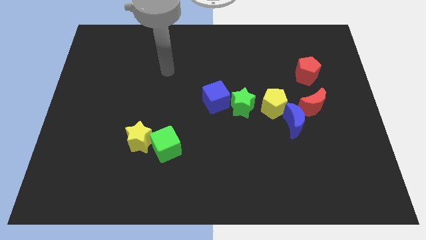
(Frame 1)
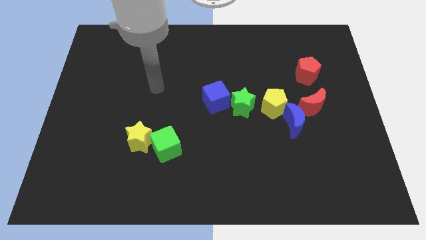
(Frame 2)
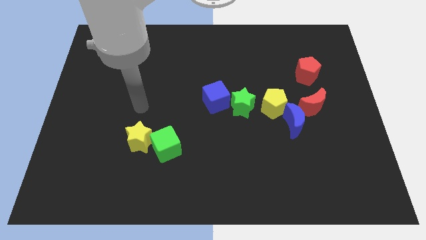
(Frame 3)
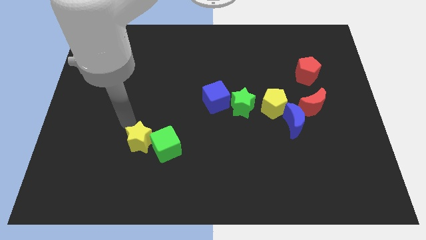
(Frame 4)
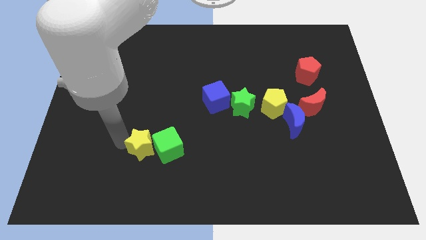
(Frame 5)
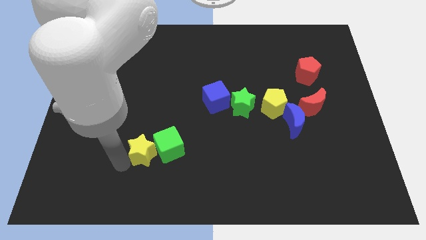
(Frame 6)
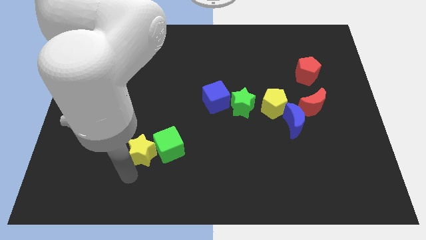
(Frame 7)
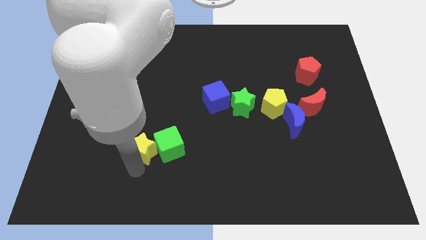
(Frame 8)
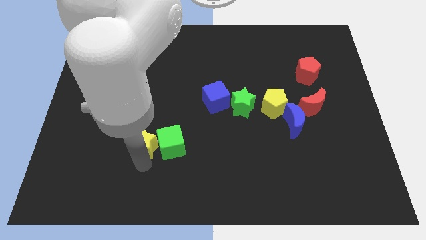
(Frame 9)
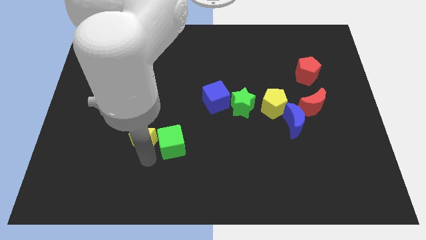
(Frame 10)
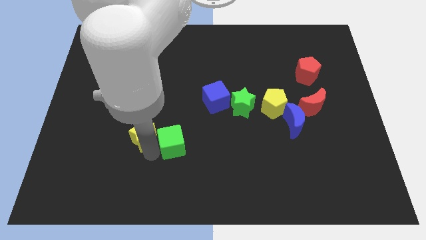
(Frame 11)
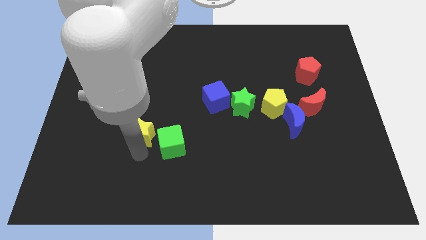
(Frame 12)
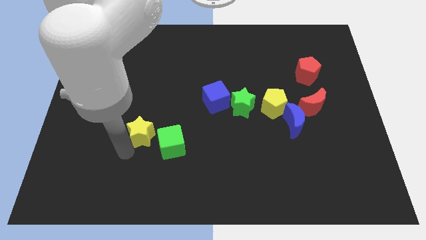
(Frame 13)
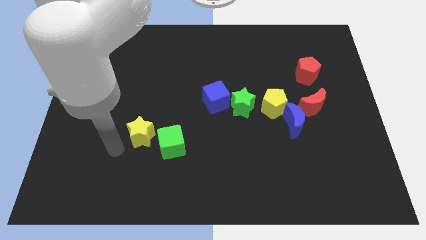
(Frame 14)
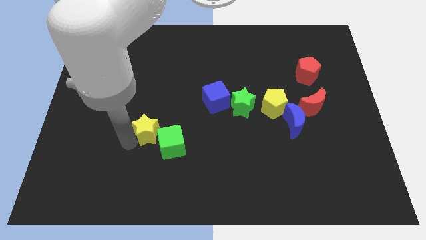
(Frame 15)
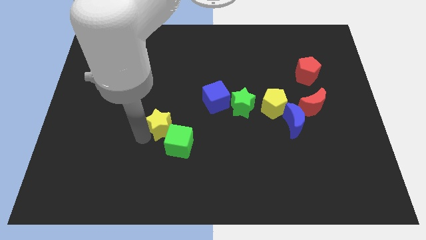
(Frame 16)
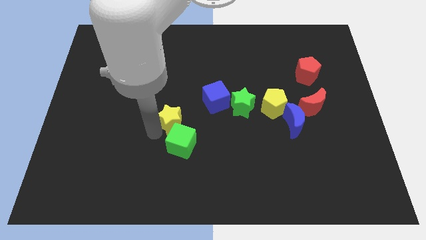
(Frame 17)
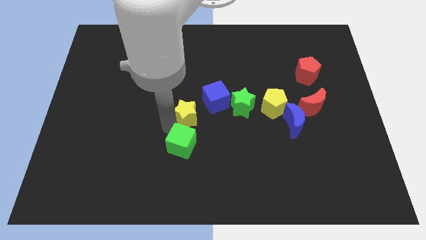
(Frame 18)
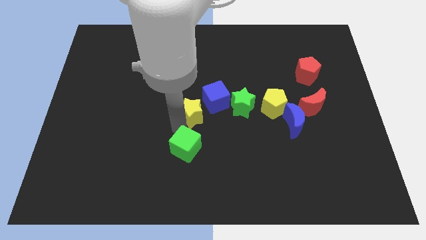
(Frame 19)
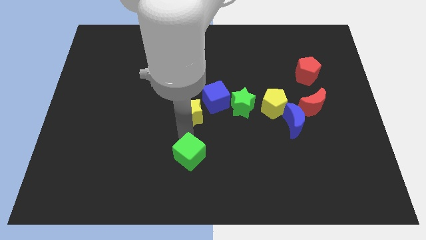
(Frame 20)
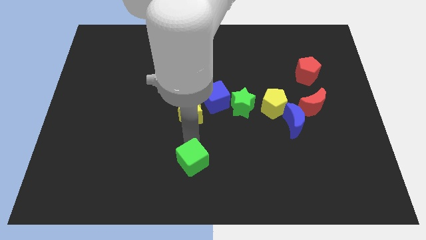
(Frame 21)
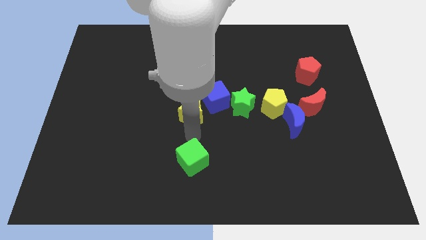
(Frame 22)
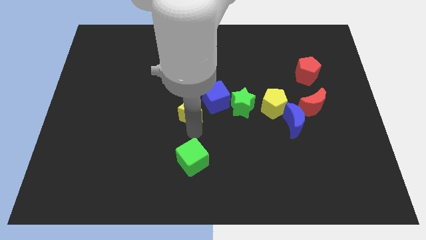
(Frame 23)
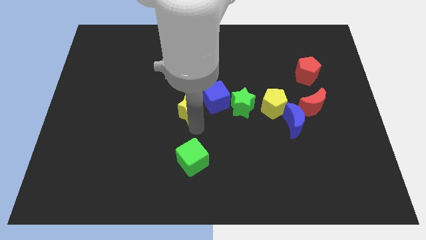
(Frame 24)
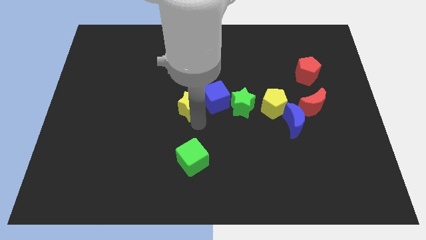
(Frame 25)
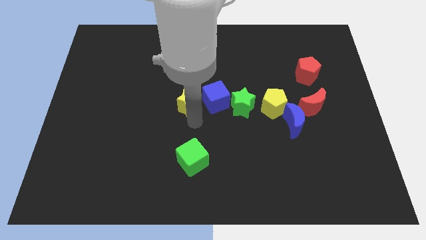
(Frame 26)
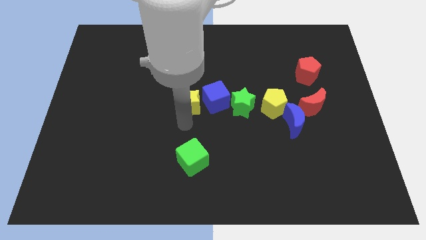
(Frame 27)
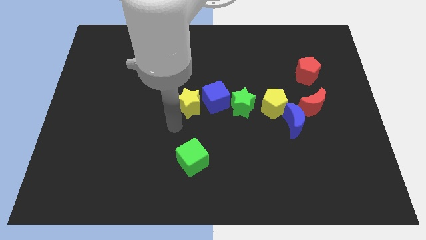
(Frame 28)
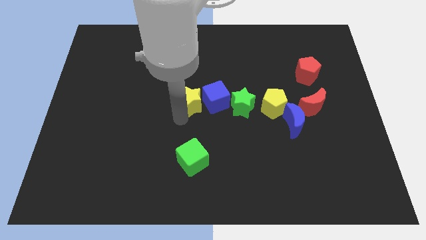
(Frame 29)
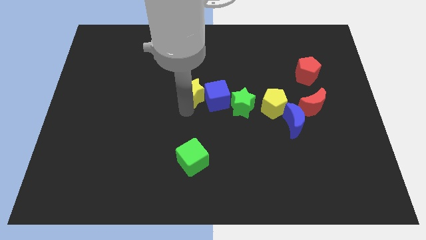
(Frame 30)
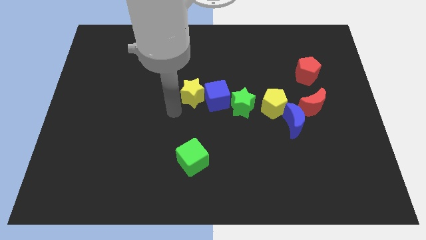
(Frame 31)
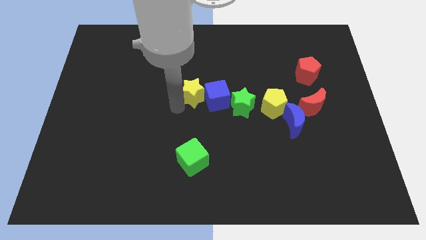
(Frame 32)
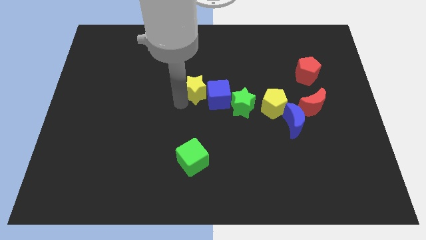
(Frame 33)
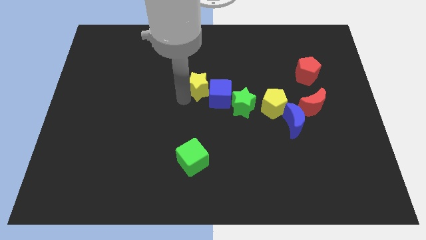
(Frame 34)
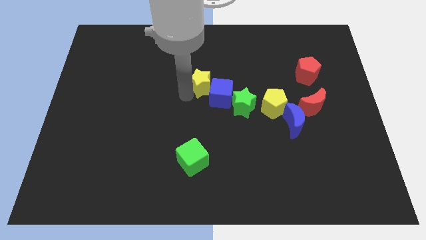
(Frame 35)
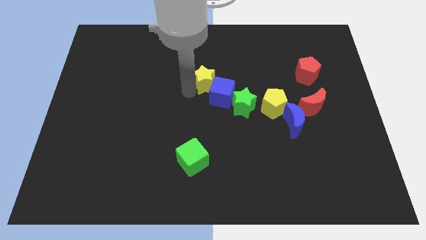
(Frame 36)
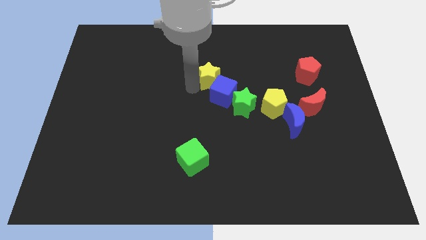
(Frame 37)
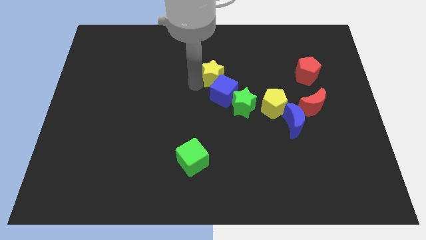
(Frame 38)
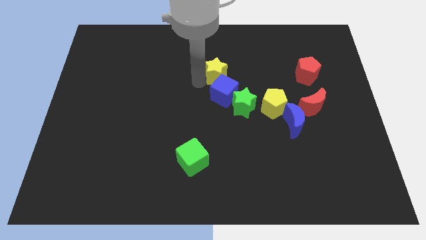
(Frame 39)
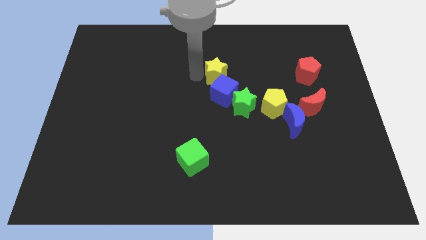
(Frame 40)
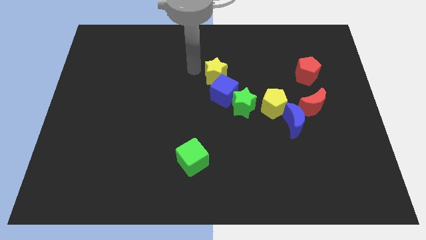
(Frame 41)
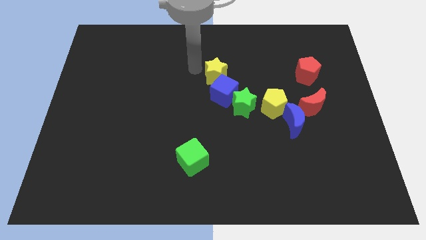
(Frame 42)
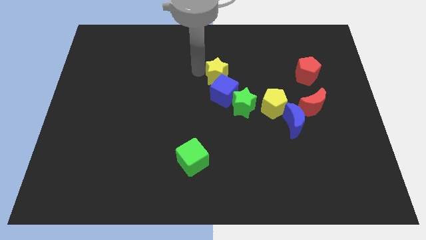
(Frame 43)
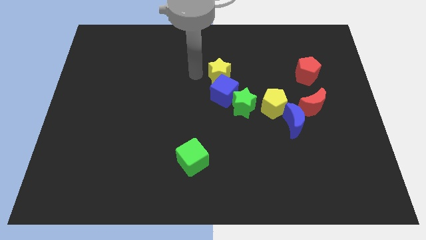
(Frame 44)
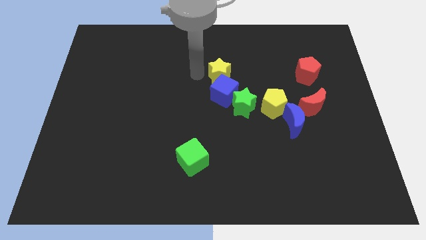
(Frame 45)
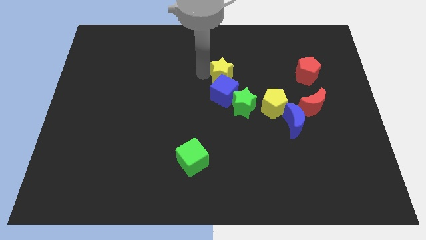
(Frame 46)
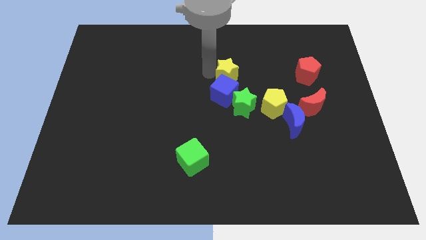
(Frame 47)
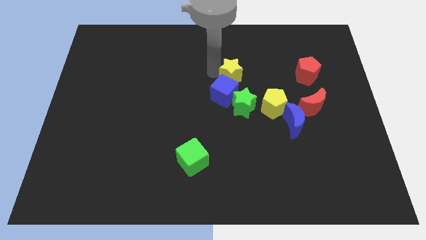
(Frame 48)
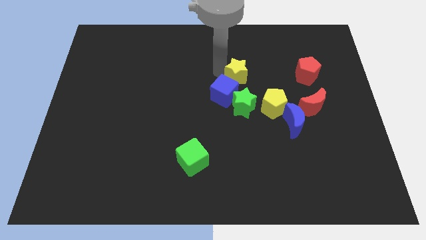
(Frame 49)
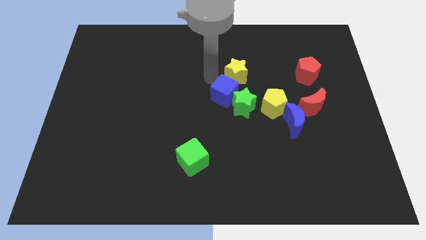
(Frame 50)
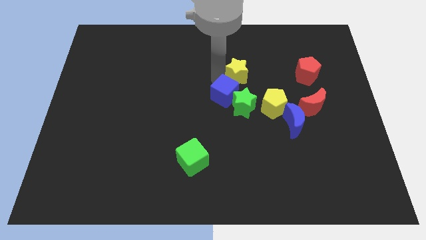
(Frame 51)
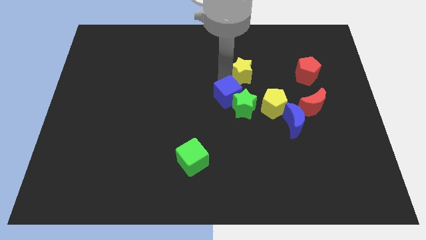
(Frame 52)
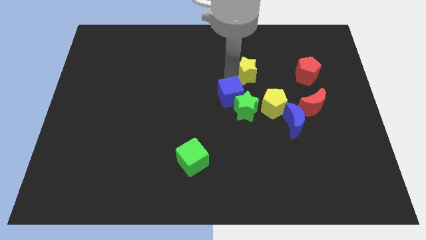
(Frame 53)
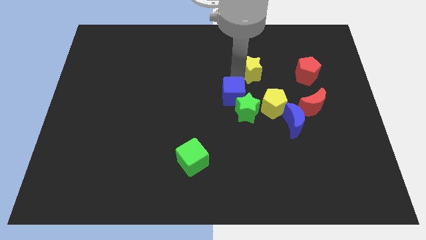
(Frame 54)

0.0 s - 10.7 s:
slide the yellow star to the top side of the yellow pentagon

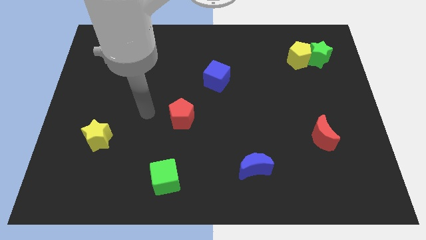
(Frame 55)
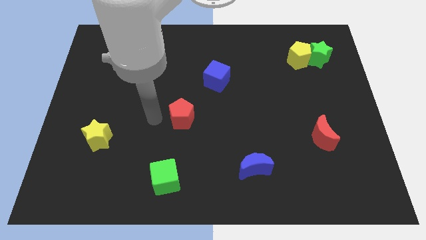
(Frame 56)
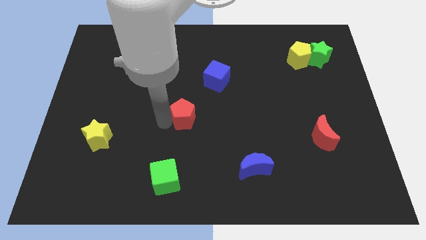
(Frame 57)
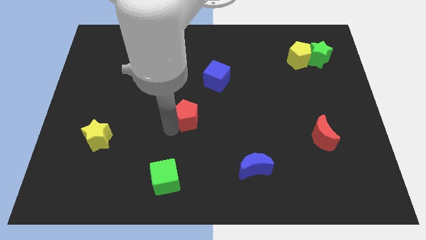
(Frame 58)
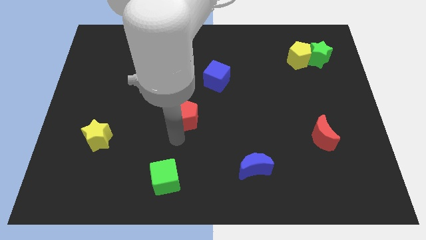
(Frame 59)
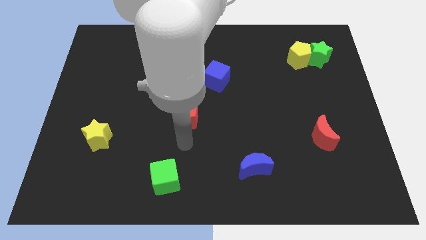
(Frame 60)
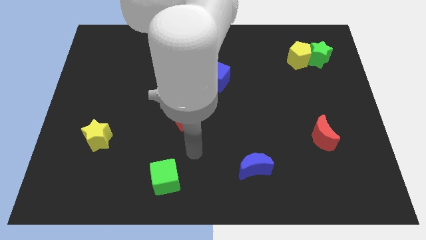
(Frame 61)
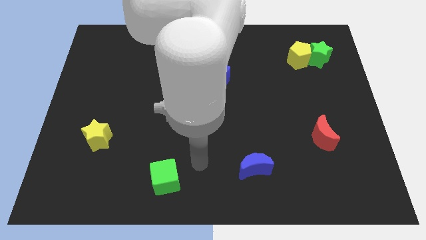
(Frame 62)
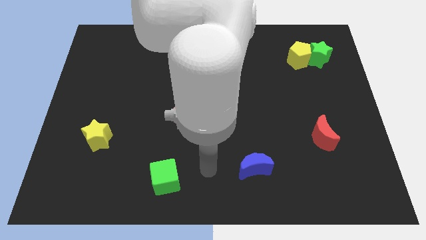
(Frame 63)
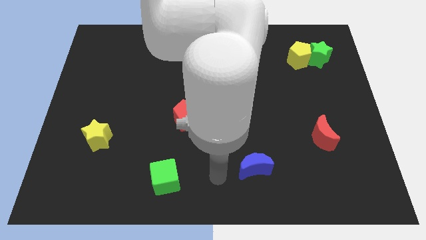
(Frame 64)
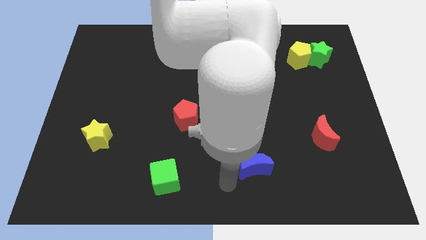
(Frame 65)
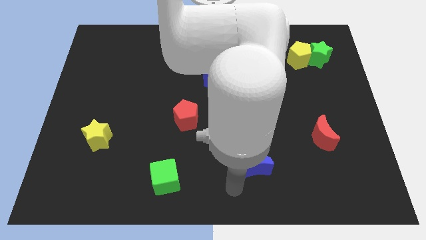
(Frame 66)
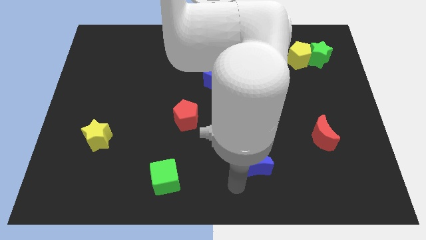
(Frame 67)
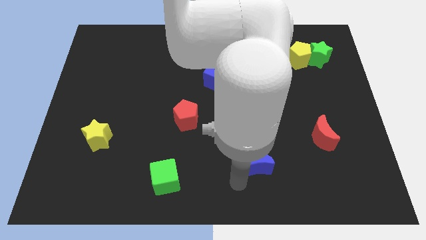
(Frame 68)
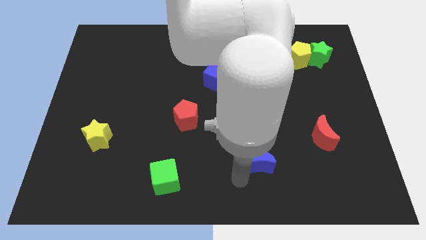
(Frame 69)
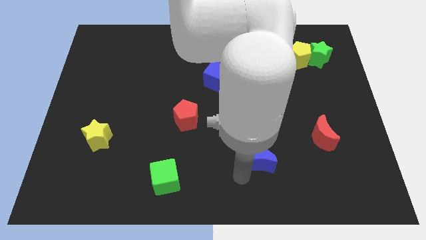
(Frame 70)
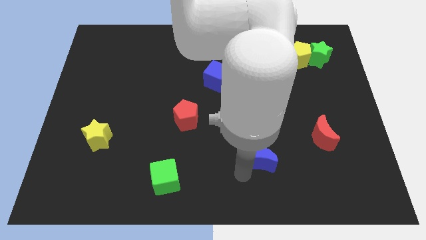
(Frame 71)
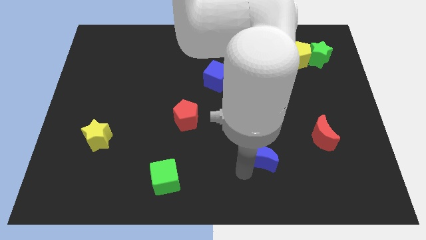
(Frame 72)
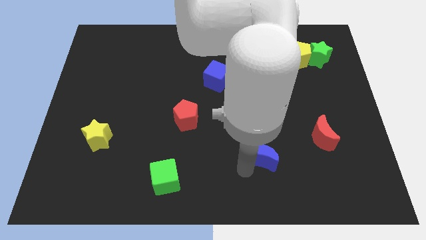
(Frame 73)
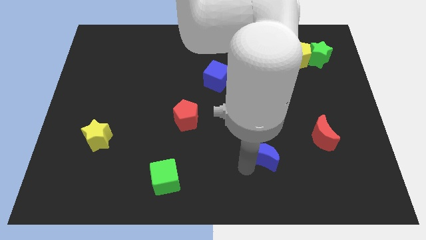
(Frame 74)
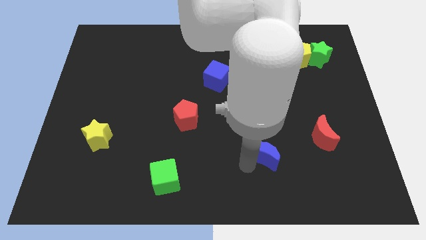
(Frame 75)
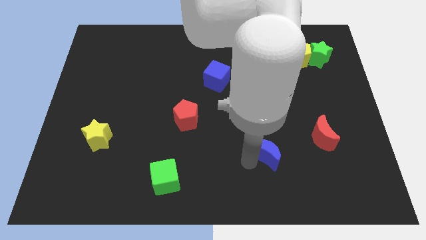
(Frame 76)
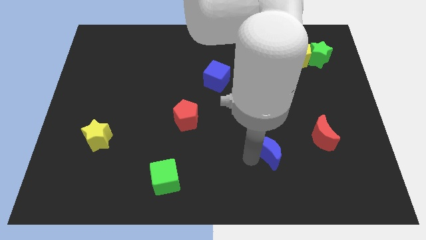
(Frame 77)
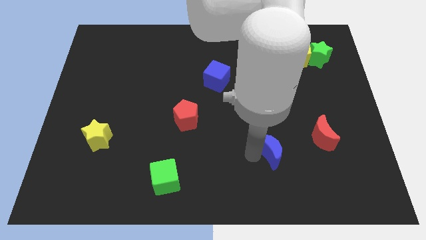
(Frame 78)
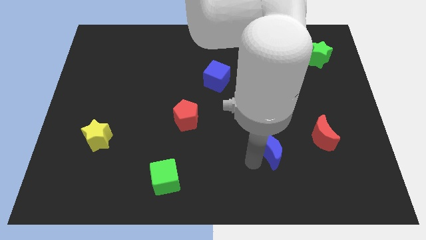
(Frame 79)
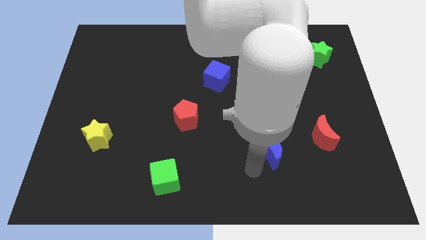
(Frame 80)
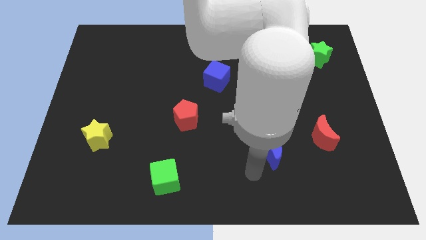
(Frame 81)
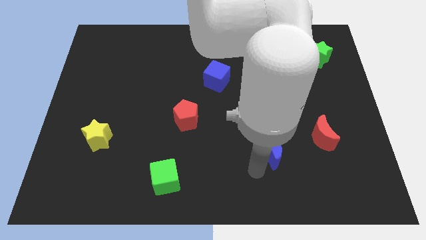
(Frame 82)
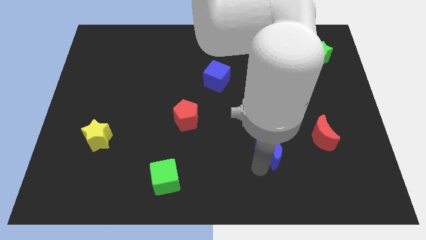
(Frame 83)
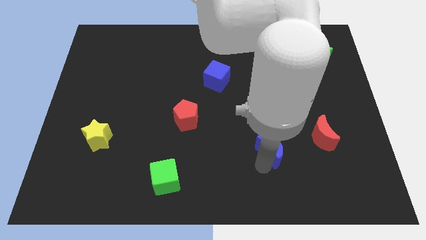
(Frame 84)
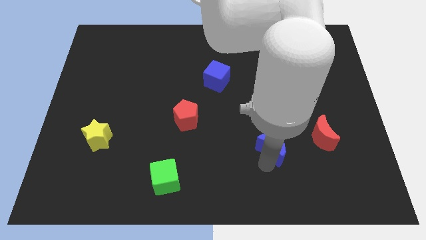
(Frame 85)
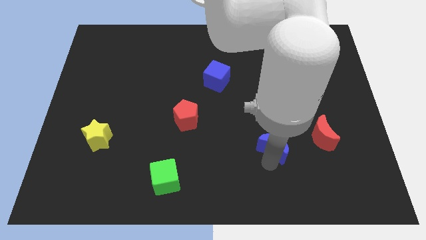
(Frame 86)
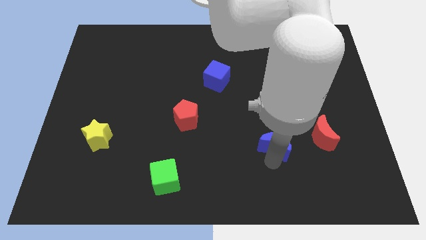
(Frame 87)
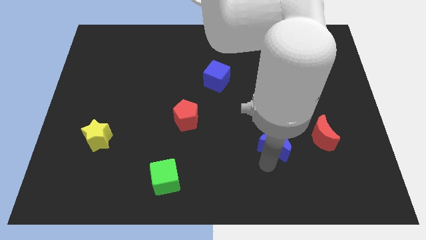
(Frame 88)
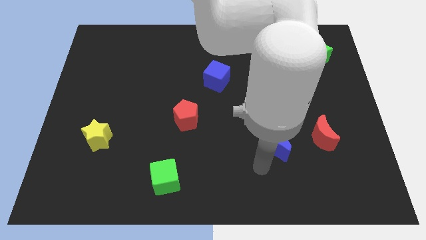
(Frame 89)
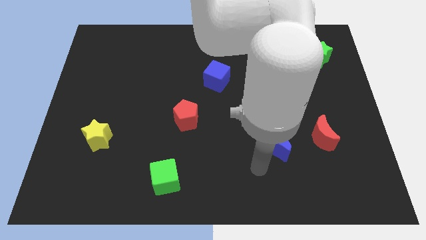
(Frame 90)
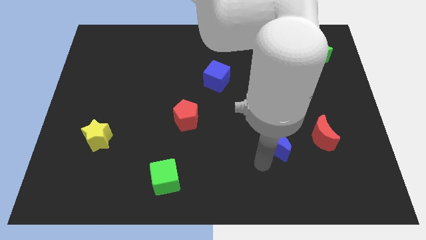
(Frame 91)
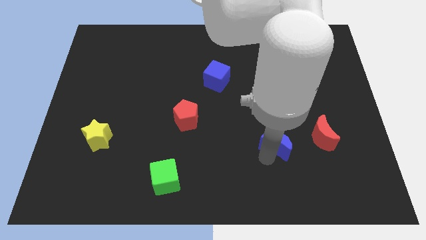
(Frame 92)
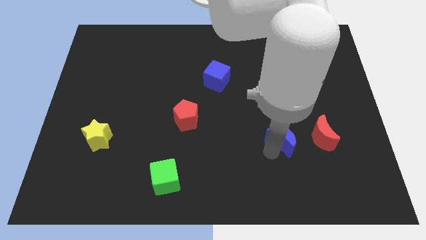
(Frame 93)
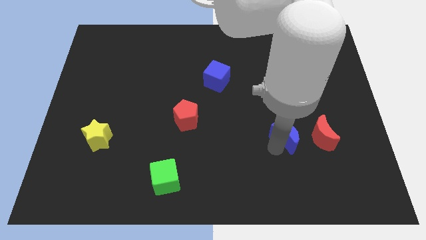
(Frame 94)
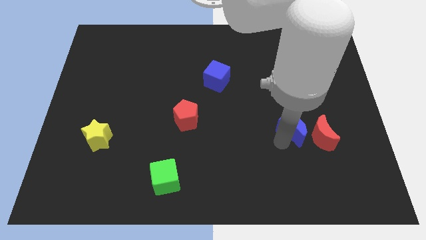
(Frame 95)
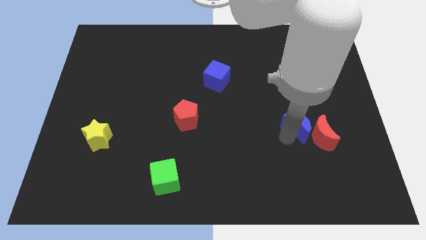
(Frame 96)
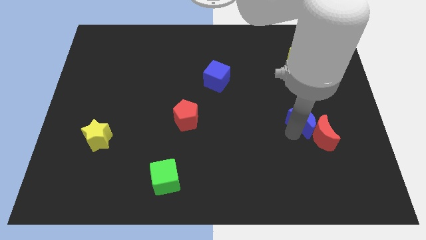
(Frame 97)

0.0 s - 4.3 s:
push the blue moon to the top side of the red moon
